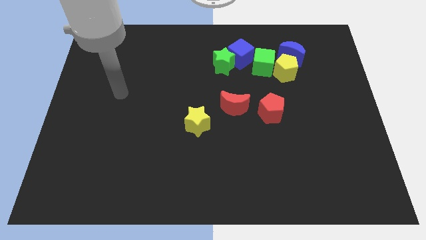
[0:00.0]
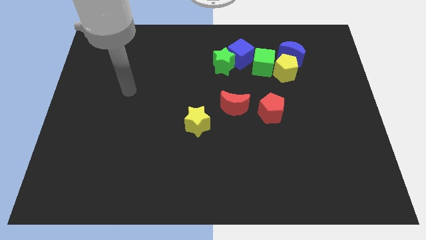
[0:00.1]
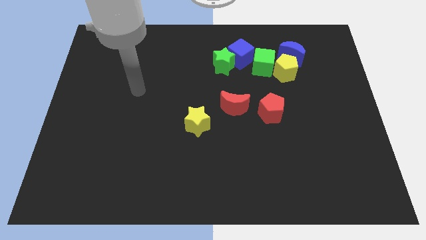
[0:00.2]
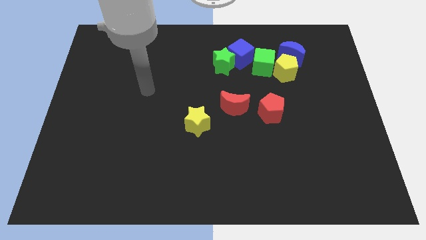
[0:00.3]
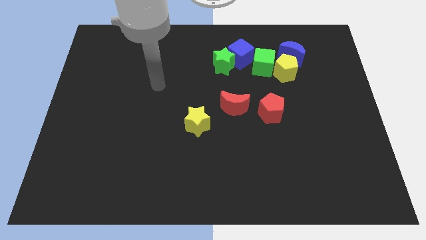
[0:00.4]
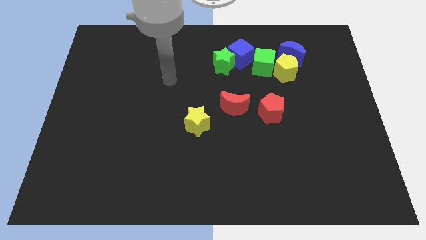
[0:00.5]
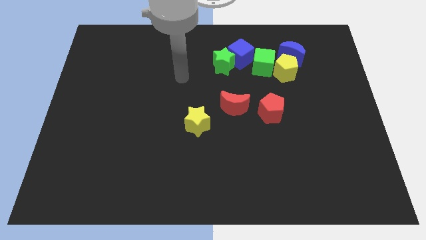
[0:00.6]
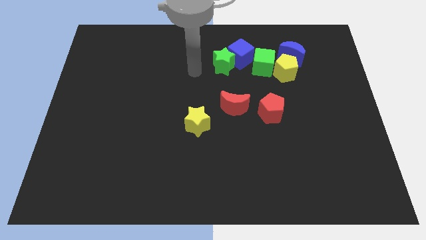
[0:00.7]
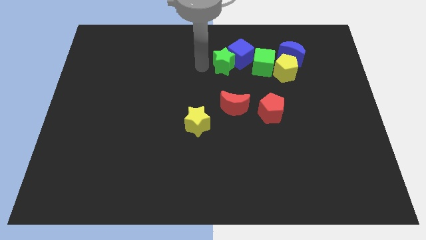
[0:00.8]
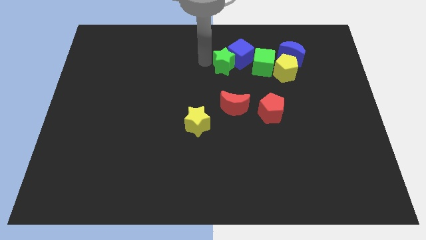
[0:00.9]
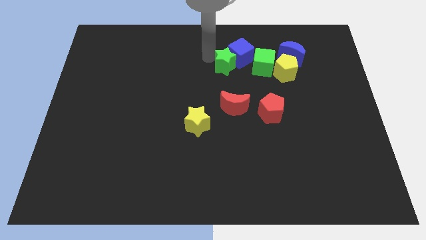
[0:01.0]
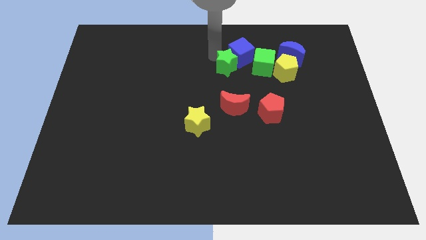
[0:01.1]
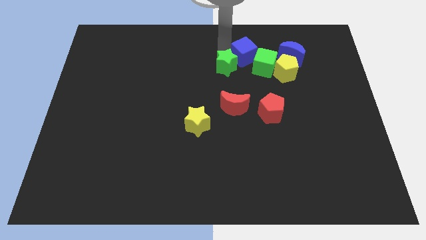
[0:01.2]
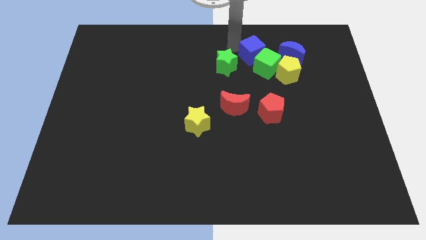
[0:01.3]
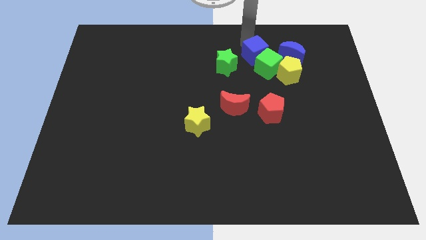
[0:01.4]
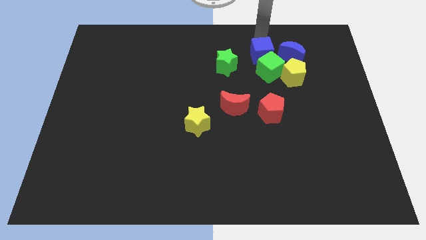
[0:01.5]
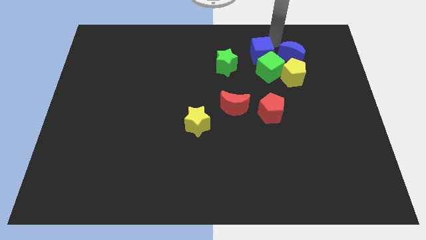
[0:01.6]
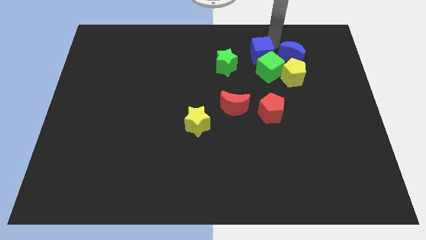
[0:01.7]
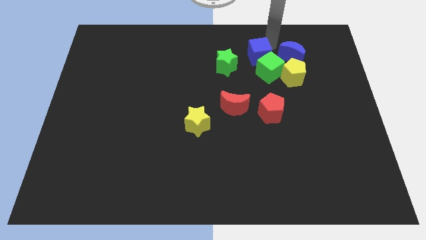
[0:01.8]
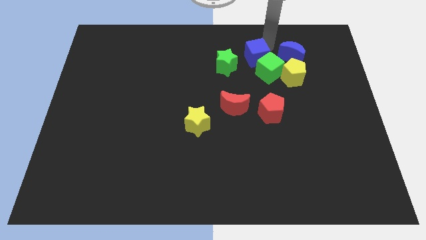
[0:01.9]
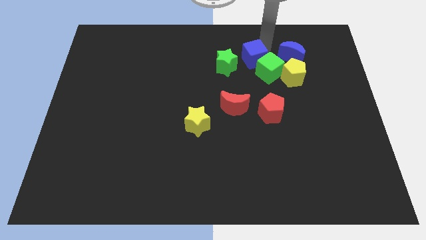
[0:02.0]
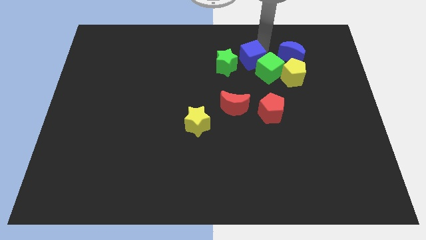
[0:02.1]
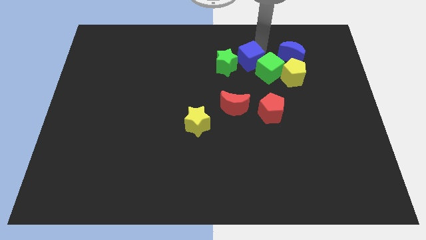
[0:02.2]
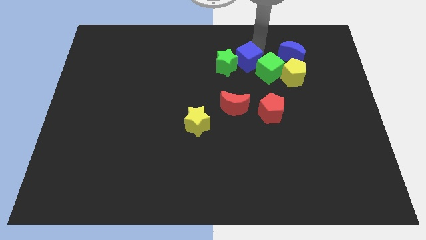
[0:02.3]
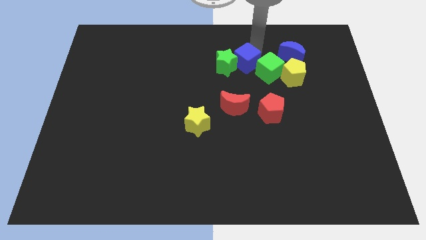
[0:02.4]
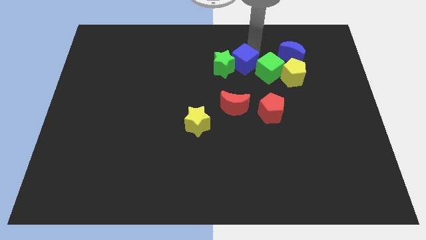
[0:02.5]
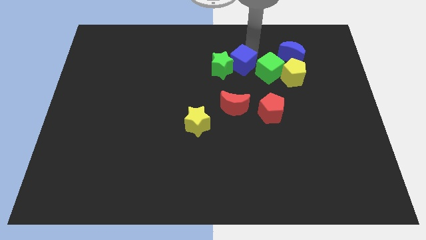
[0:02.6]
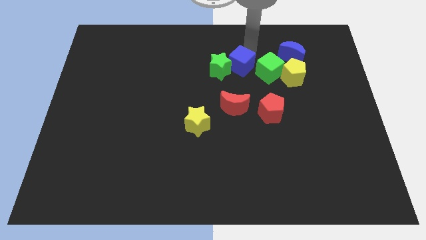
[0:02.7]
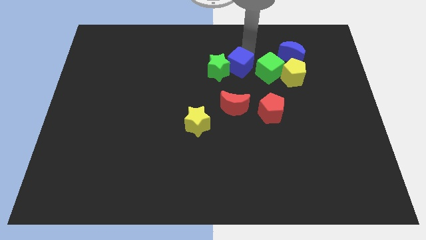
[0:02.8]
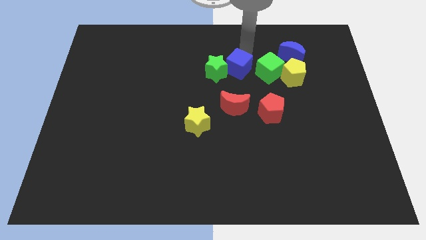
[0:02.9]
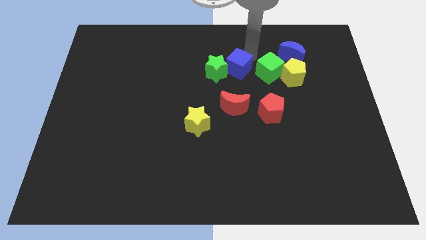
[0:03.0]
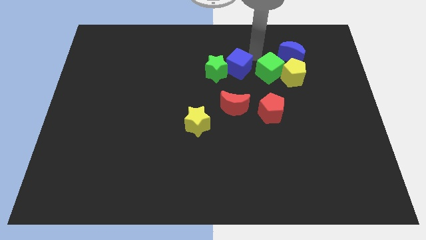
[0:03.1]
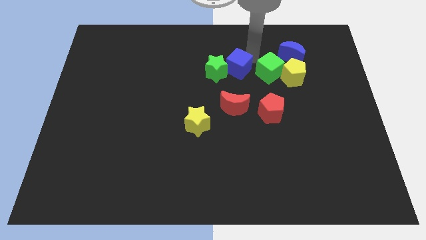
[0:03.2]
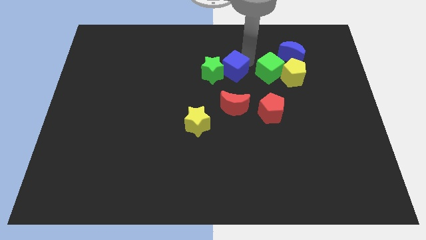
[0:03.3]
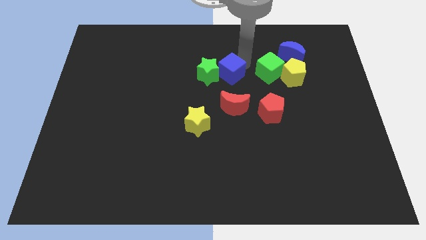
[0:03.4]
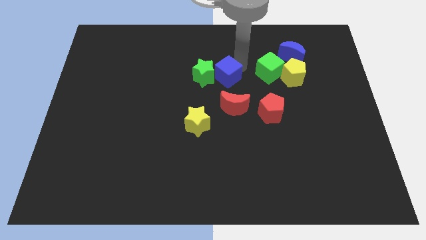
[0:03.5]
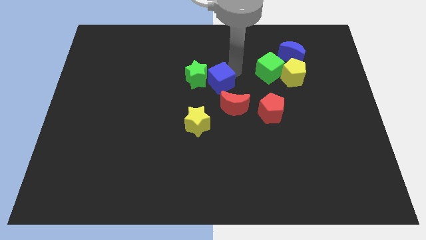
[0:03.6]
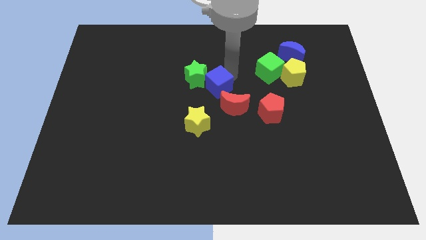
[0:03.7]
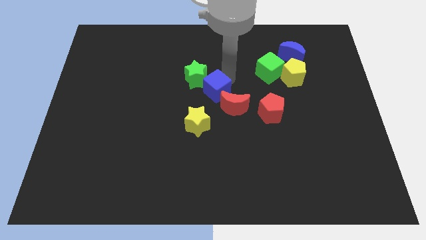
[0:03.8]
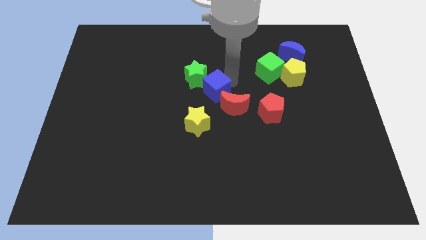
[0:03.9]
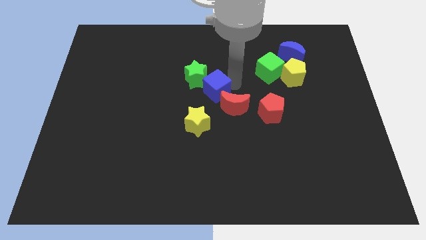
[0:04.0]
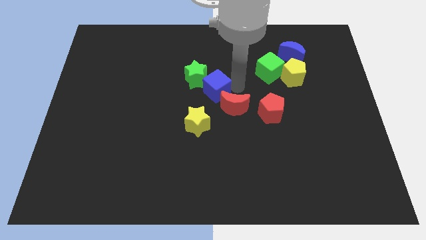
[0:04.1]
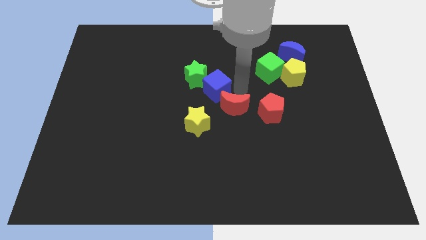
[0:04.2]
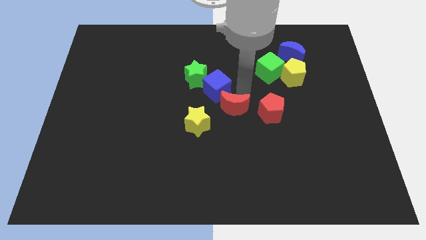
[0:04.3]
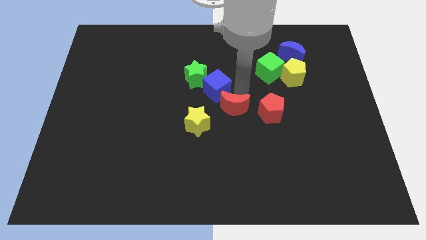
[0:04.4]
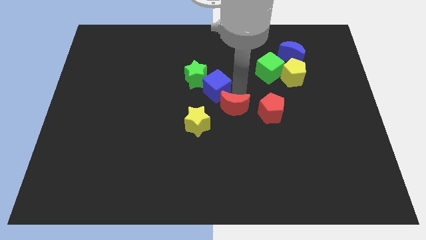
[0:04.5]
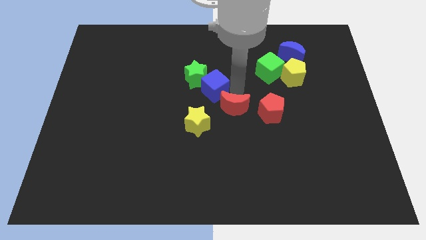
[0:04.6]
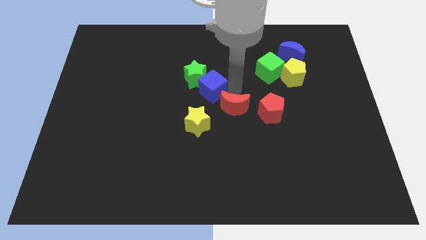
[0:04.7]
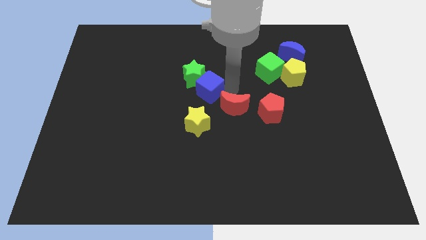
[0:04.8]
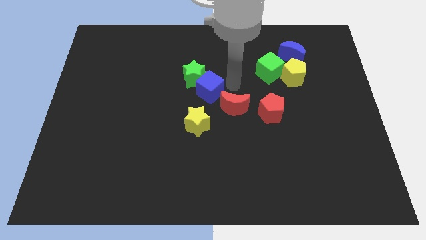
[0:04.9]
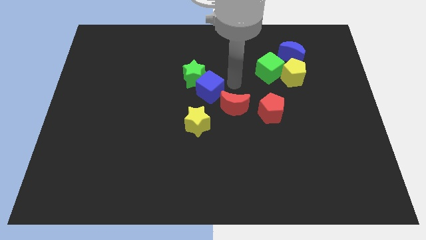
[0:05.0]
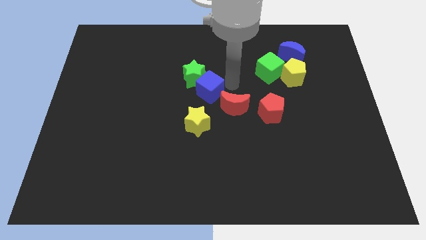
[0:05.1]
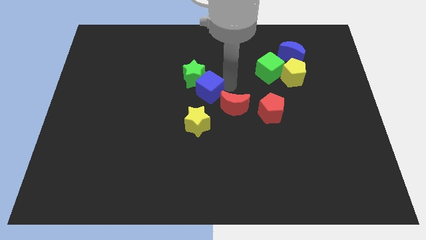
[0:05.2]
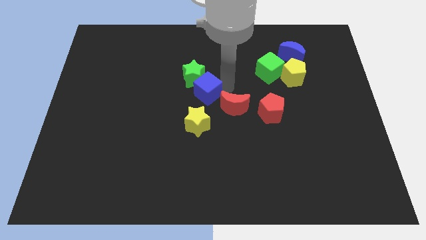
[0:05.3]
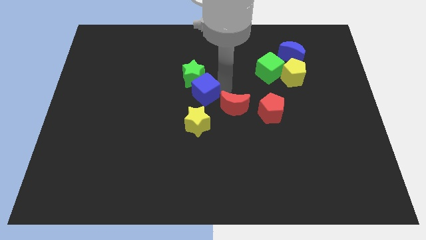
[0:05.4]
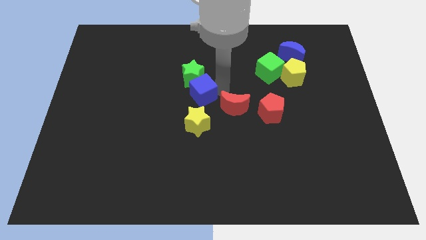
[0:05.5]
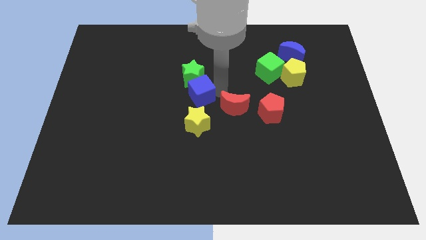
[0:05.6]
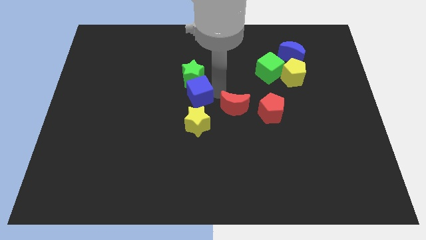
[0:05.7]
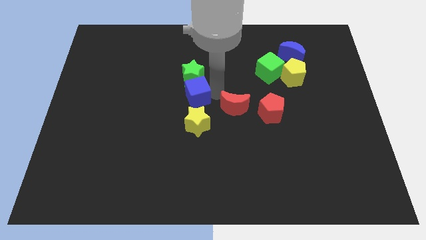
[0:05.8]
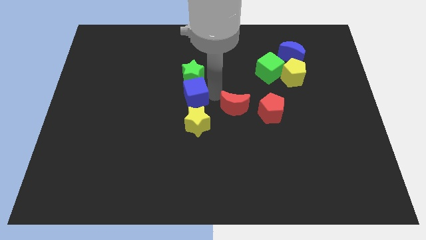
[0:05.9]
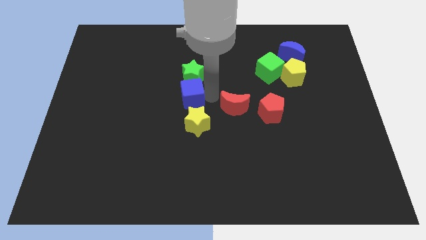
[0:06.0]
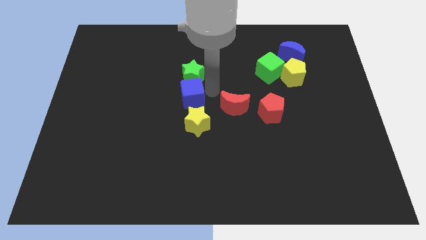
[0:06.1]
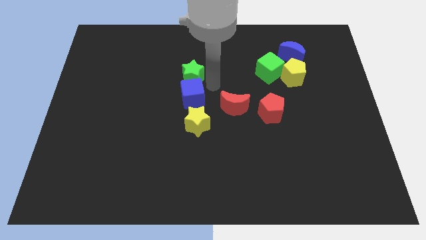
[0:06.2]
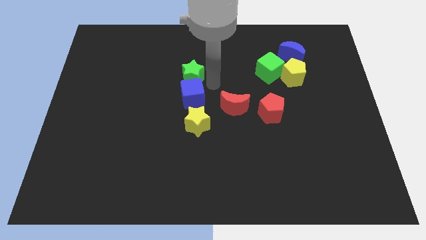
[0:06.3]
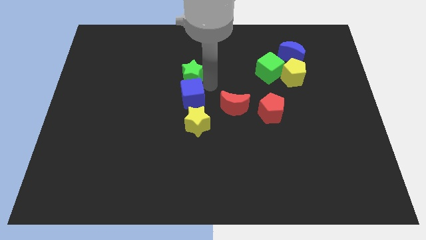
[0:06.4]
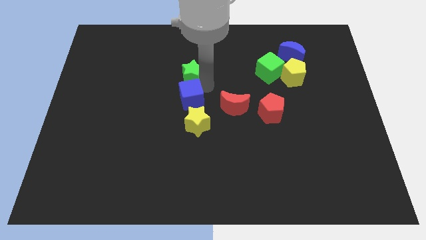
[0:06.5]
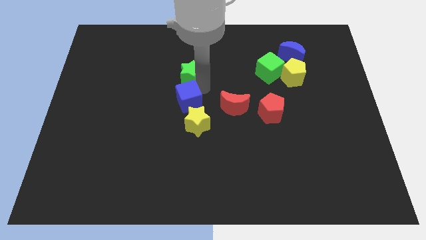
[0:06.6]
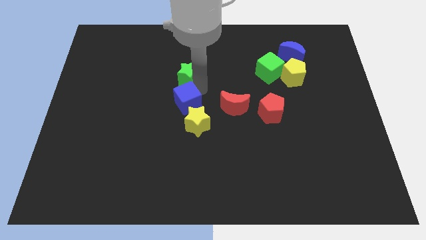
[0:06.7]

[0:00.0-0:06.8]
move the blue cube diagonally downwards and left

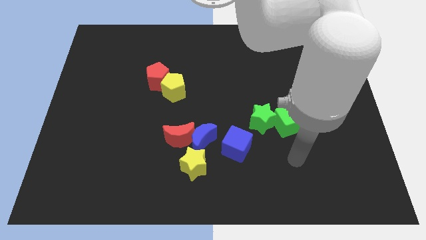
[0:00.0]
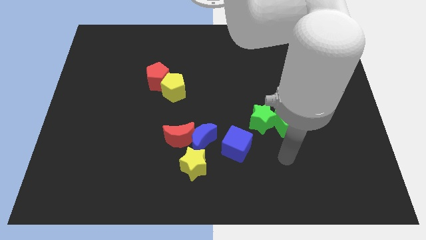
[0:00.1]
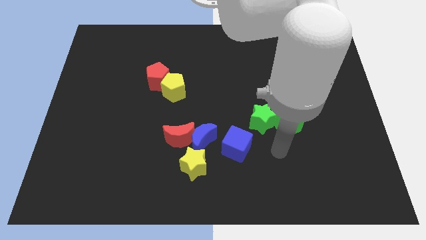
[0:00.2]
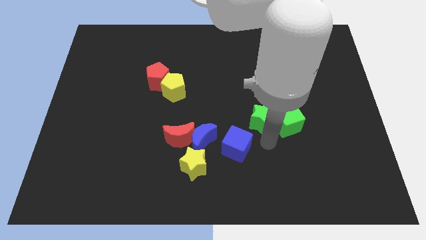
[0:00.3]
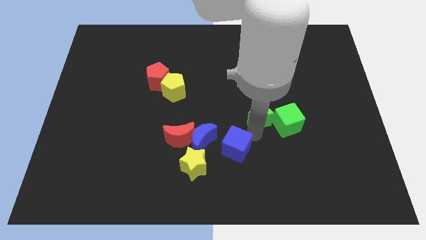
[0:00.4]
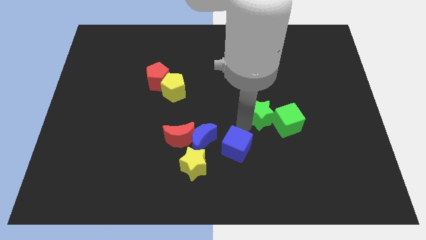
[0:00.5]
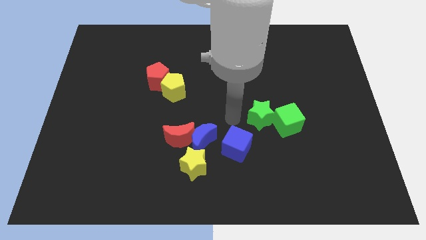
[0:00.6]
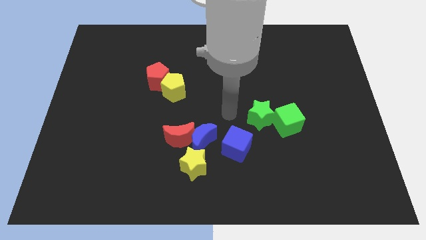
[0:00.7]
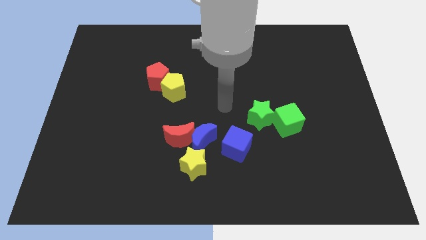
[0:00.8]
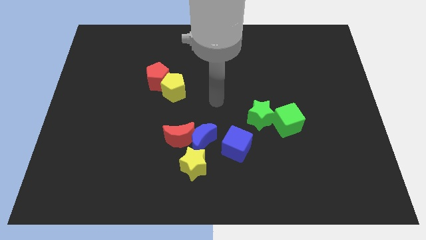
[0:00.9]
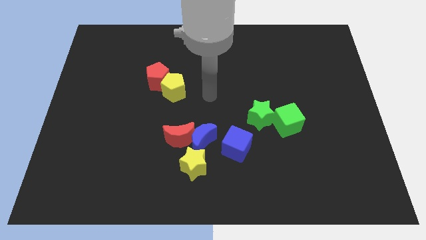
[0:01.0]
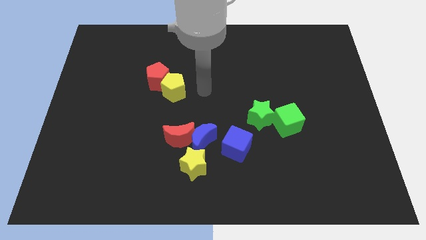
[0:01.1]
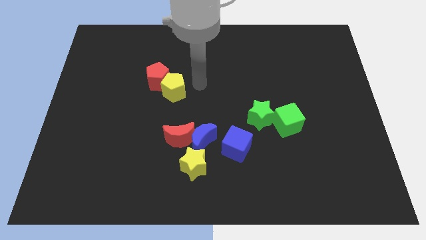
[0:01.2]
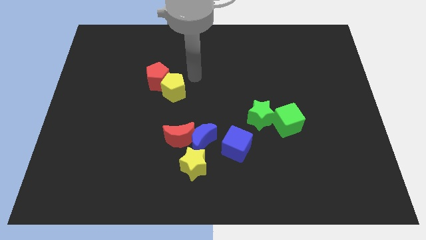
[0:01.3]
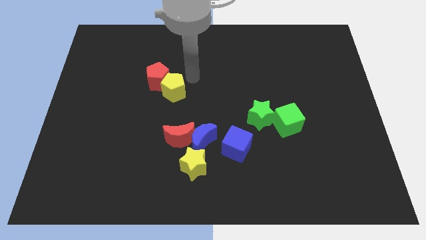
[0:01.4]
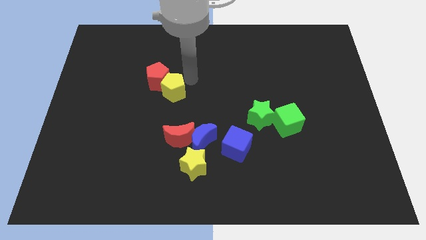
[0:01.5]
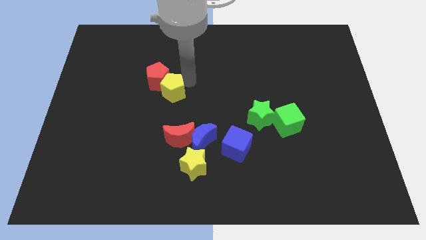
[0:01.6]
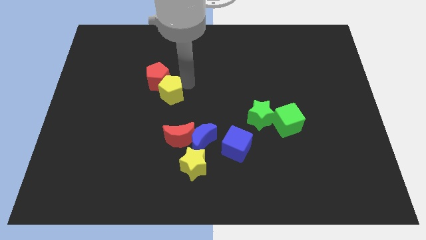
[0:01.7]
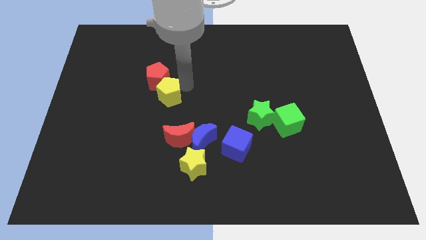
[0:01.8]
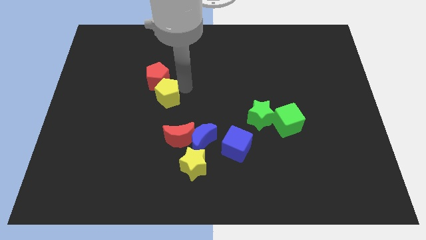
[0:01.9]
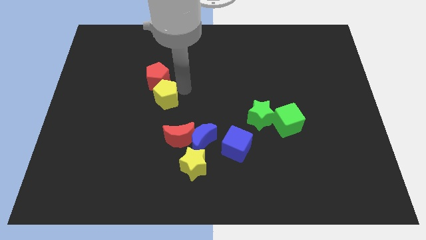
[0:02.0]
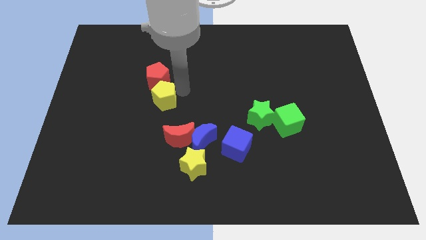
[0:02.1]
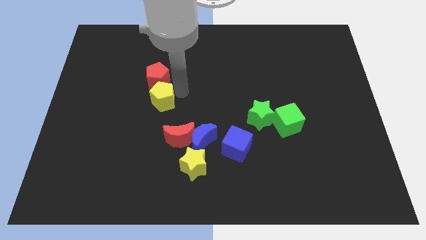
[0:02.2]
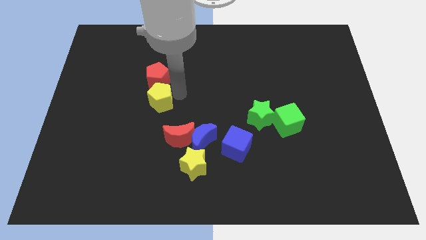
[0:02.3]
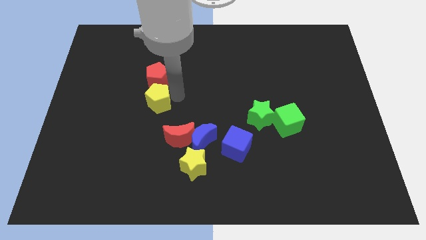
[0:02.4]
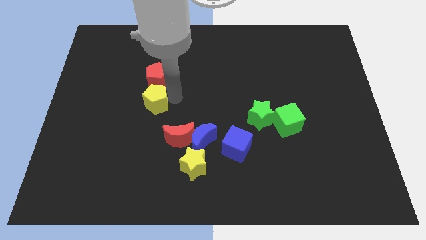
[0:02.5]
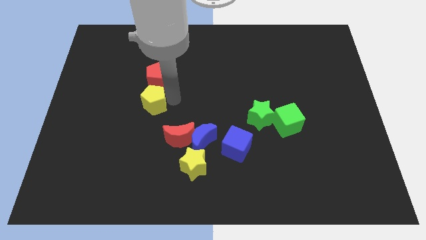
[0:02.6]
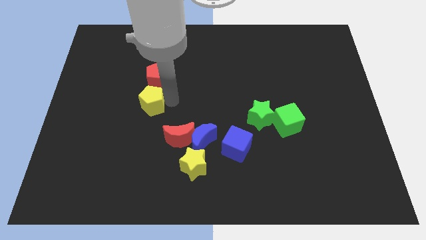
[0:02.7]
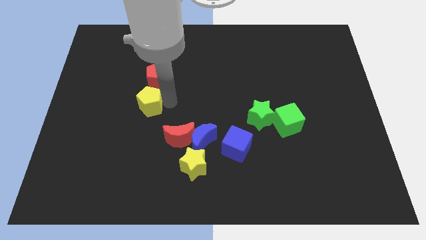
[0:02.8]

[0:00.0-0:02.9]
slide the yellow pentagon down and left diagonally a little
